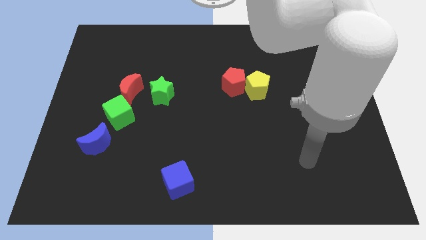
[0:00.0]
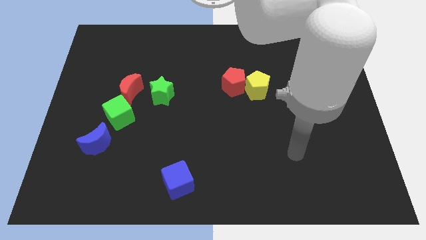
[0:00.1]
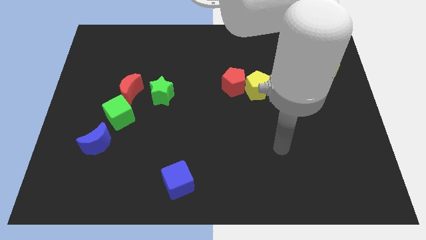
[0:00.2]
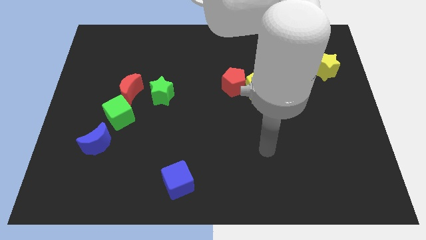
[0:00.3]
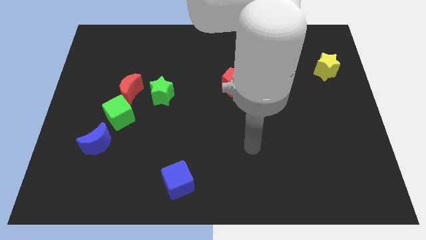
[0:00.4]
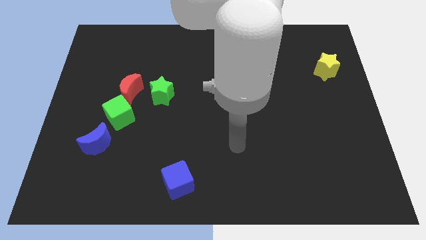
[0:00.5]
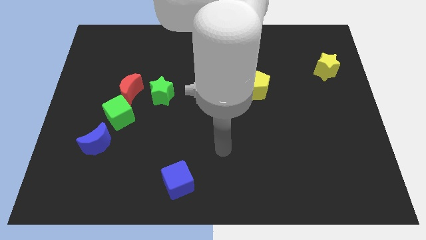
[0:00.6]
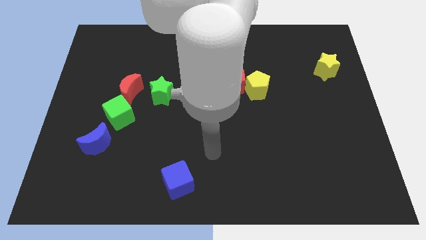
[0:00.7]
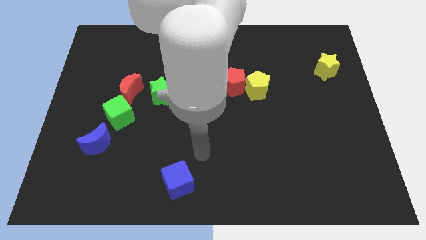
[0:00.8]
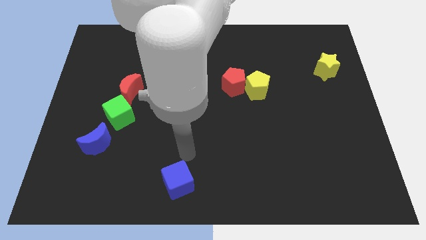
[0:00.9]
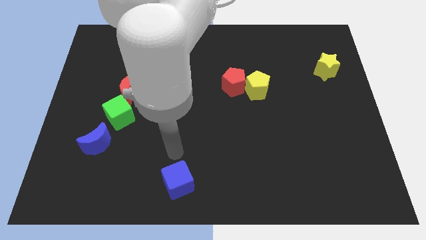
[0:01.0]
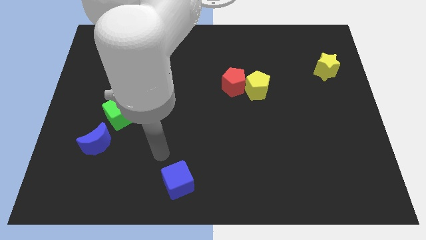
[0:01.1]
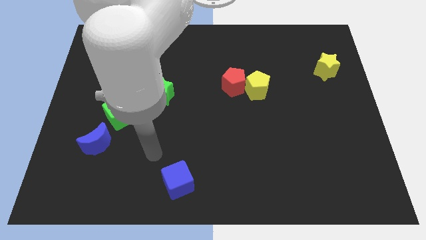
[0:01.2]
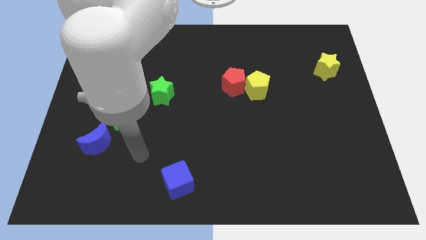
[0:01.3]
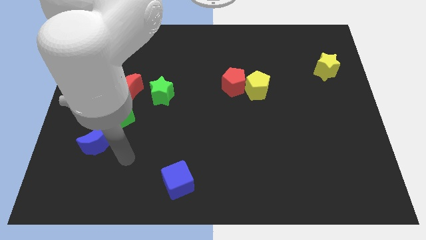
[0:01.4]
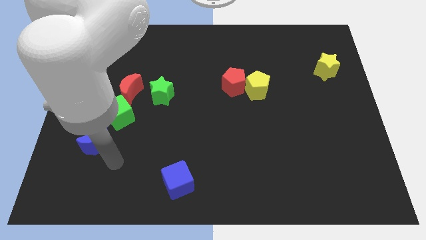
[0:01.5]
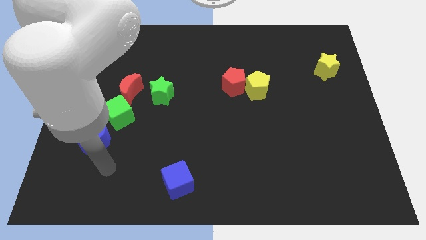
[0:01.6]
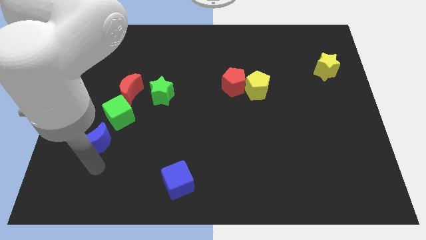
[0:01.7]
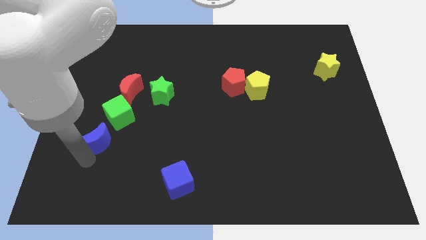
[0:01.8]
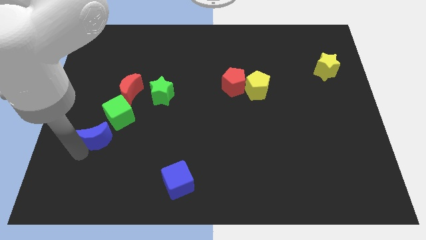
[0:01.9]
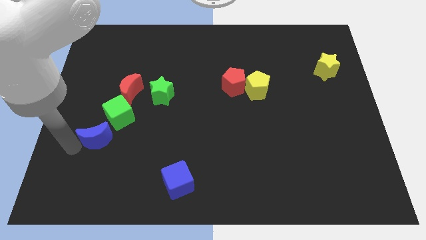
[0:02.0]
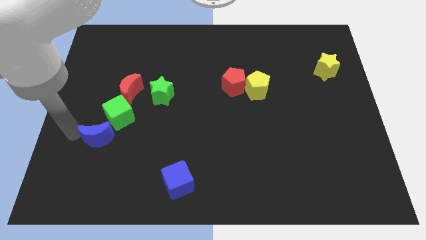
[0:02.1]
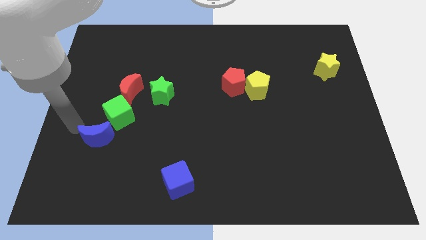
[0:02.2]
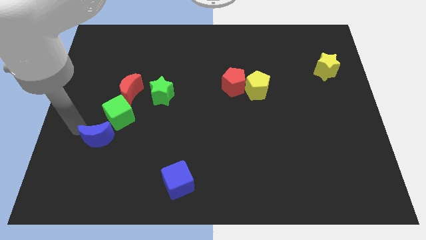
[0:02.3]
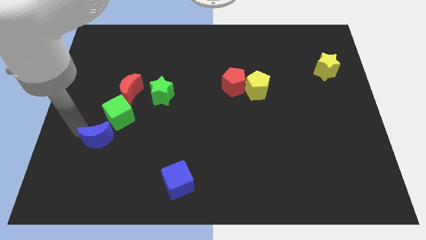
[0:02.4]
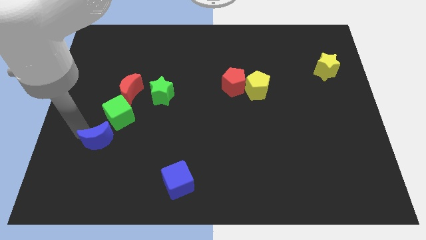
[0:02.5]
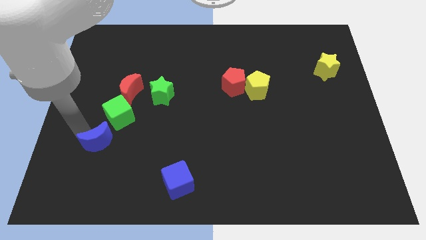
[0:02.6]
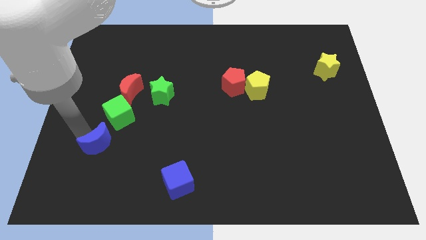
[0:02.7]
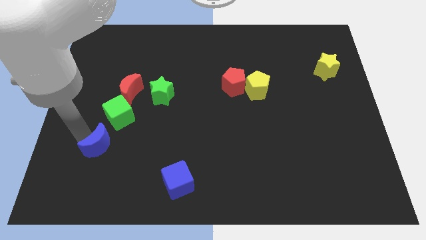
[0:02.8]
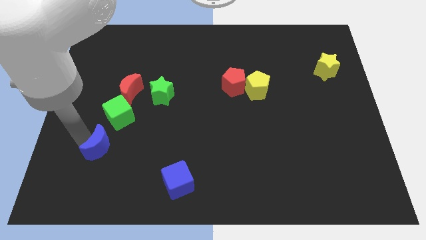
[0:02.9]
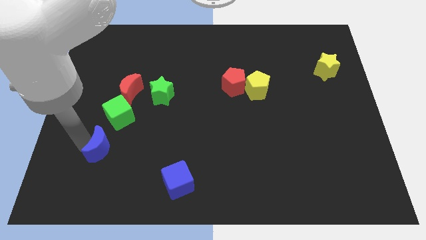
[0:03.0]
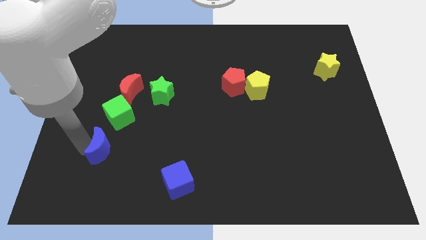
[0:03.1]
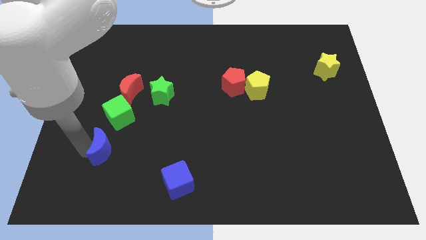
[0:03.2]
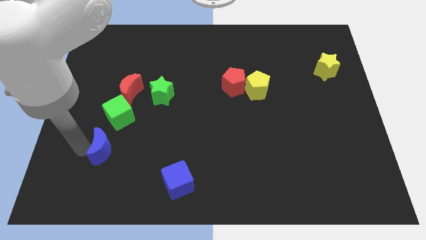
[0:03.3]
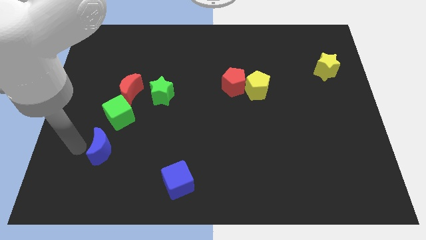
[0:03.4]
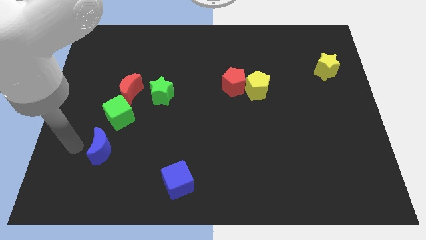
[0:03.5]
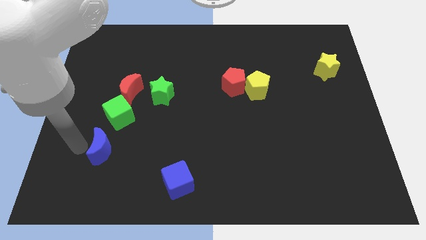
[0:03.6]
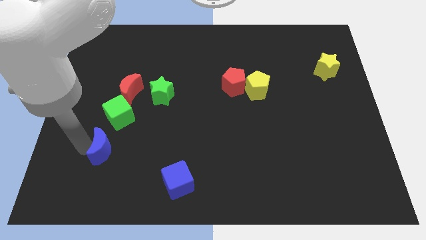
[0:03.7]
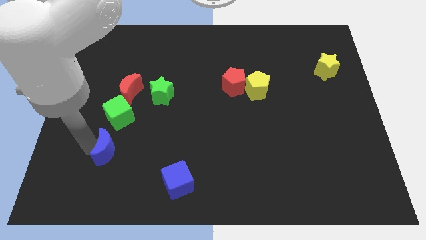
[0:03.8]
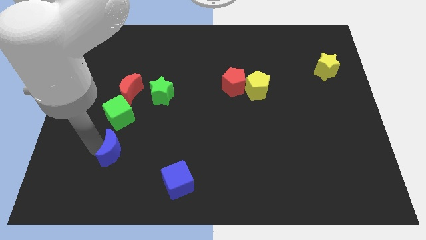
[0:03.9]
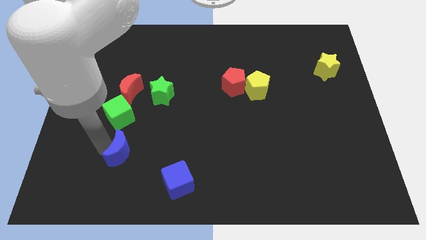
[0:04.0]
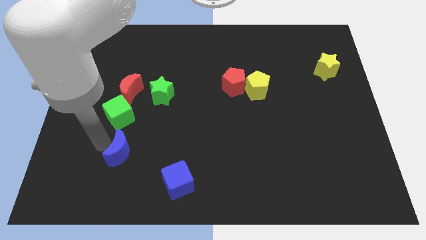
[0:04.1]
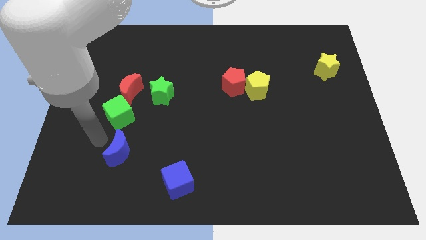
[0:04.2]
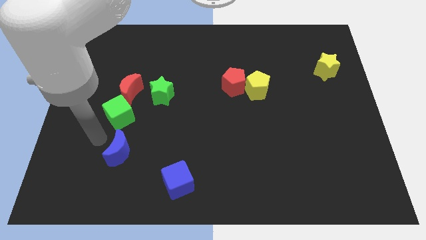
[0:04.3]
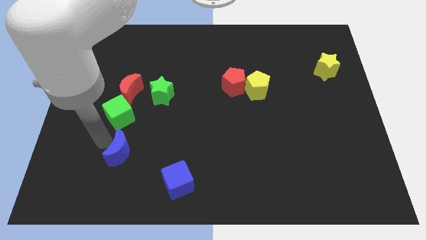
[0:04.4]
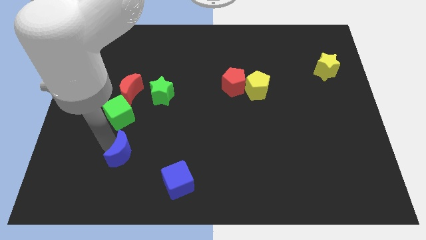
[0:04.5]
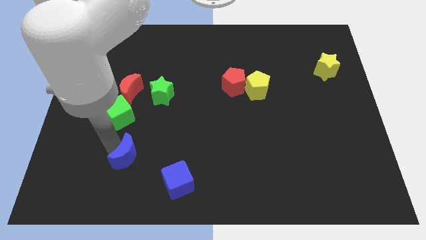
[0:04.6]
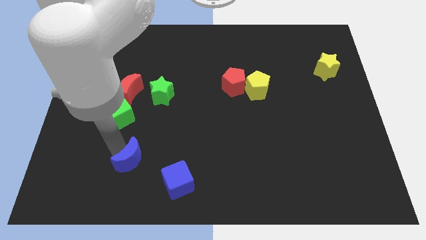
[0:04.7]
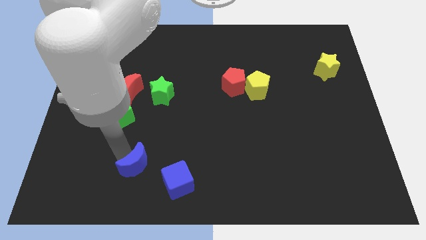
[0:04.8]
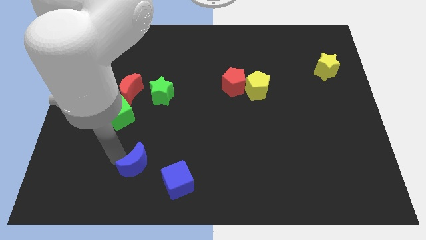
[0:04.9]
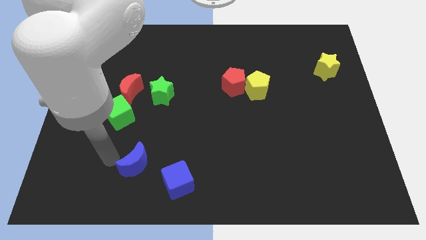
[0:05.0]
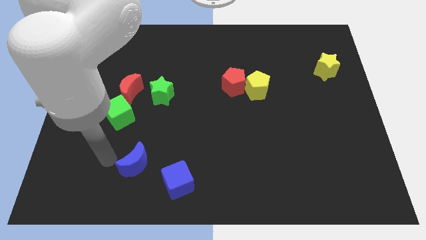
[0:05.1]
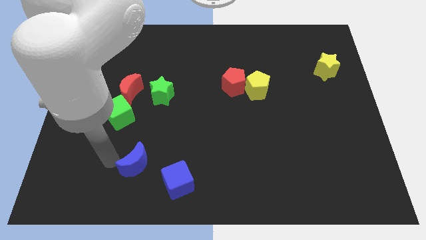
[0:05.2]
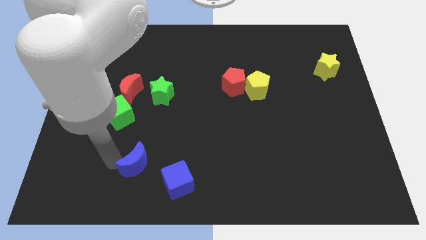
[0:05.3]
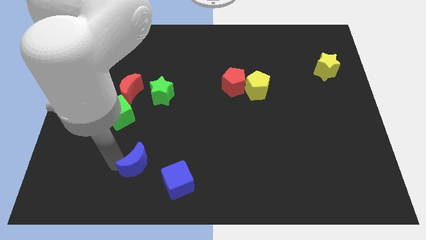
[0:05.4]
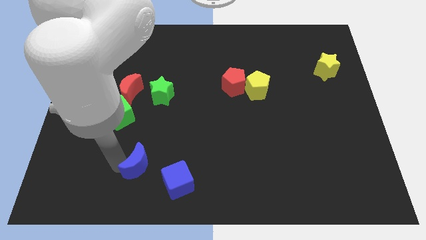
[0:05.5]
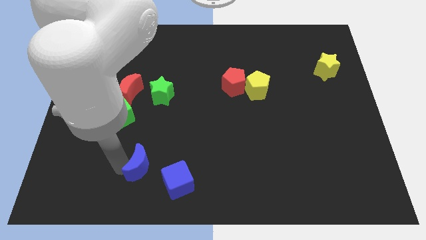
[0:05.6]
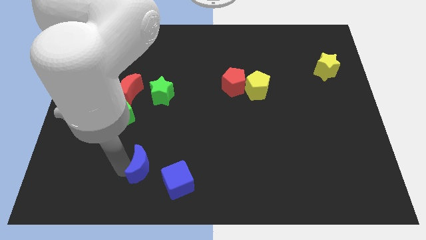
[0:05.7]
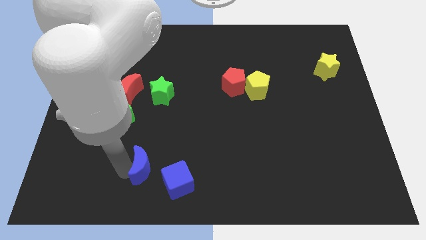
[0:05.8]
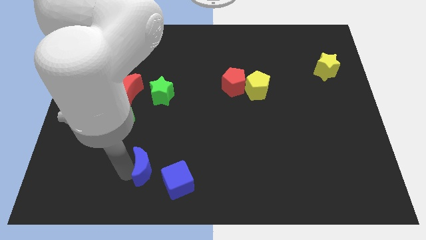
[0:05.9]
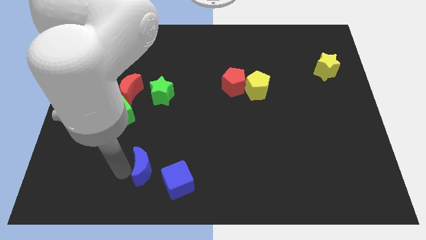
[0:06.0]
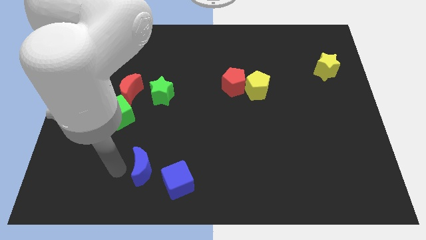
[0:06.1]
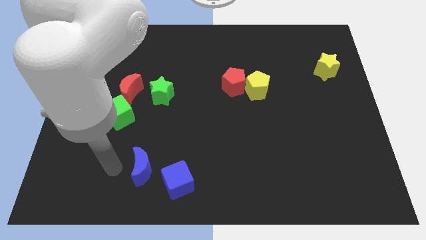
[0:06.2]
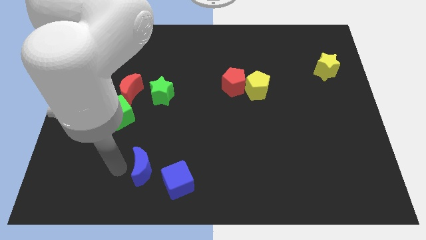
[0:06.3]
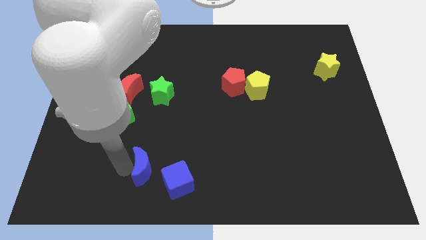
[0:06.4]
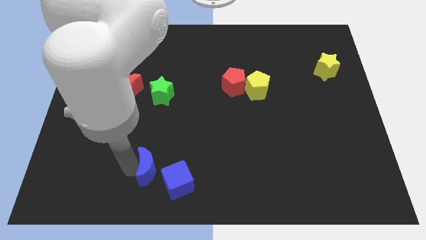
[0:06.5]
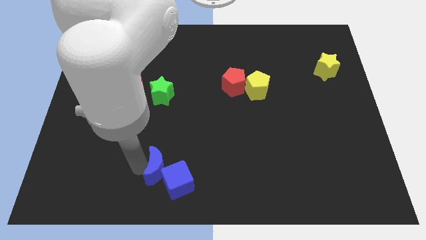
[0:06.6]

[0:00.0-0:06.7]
move the blue moon next to the blue cube
